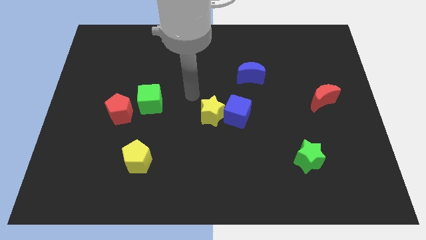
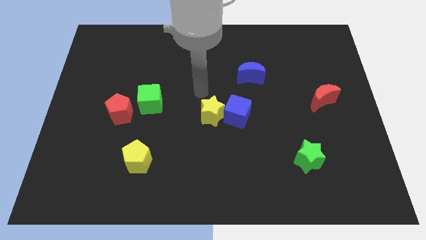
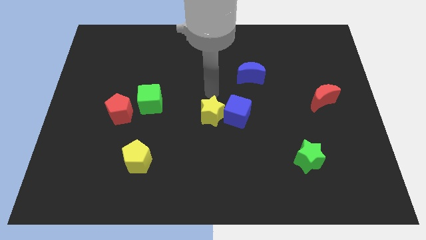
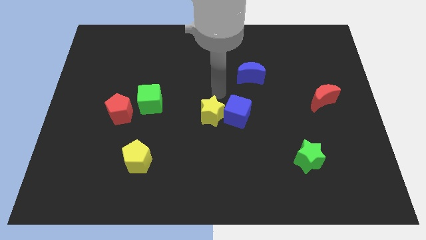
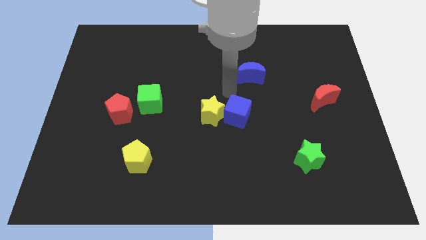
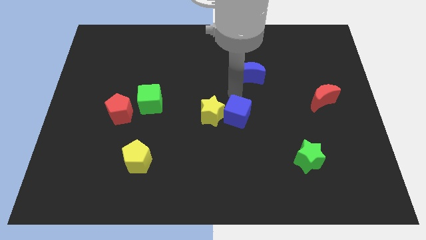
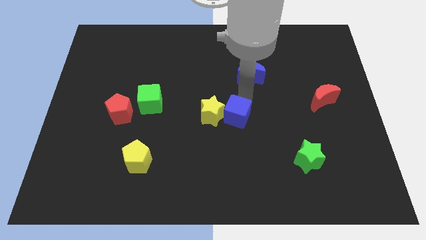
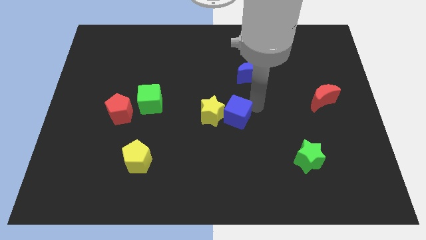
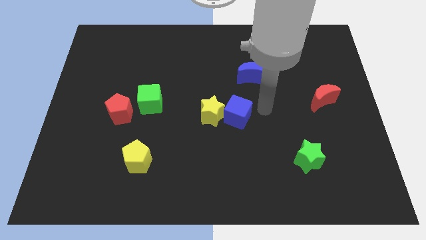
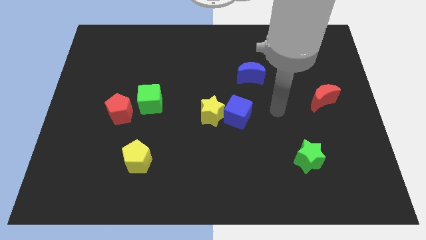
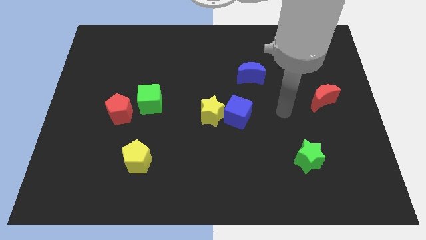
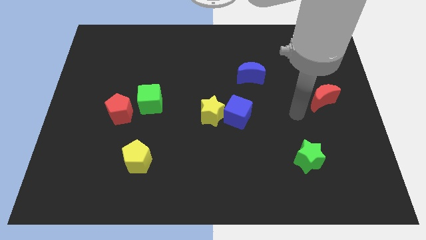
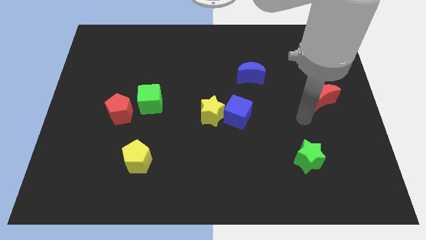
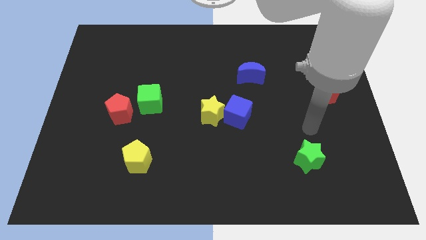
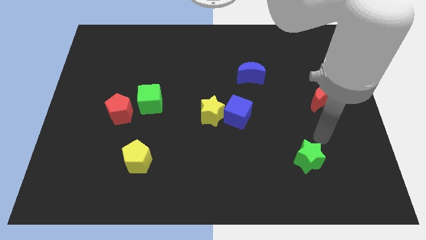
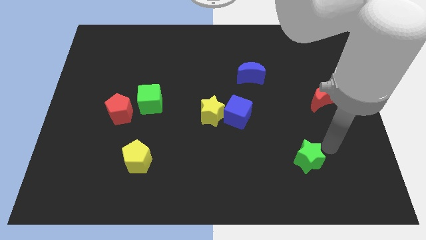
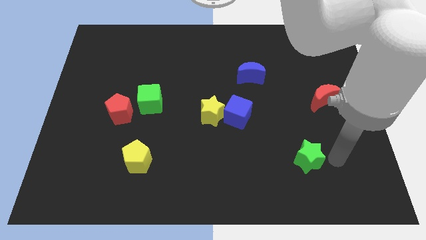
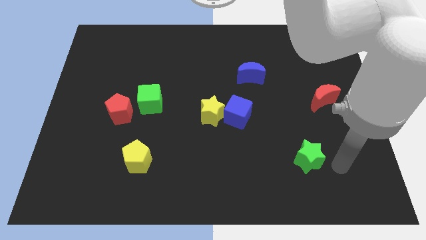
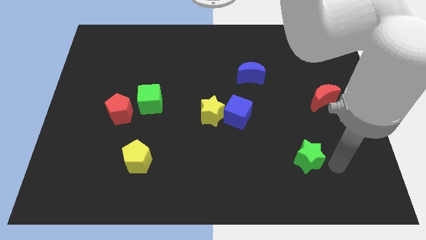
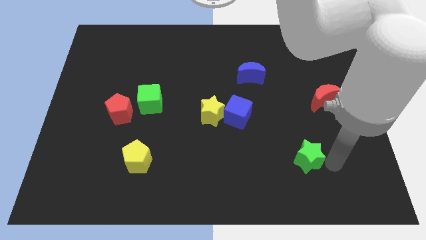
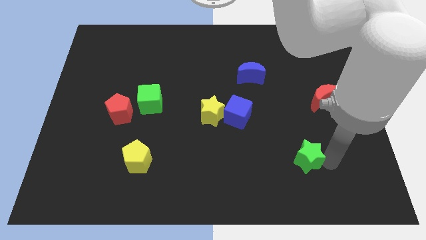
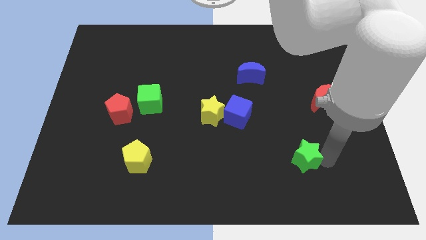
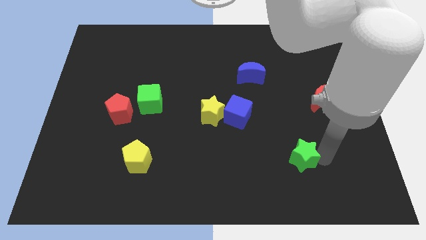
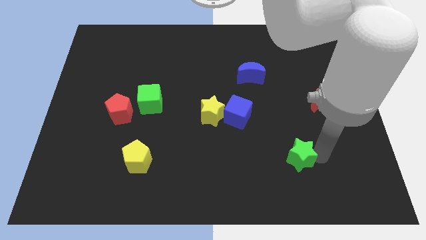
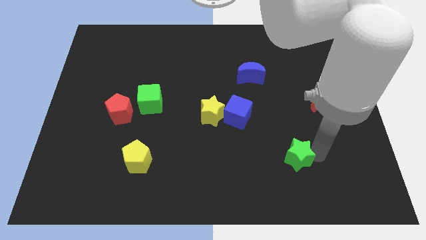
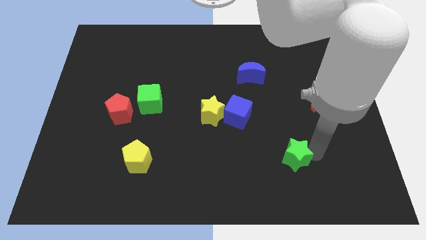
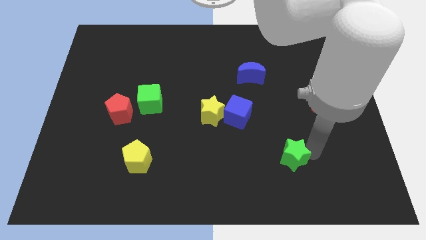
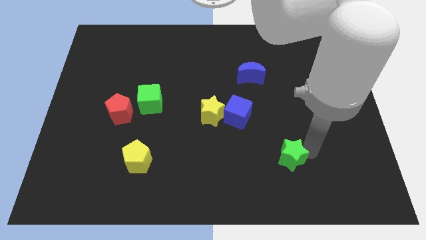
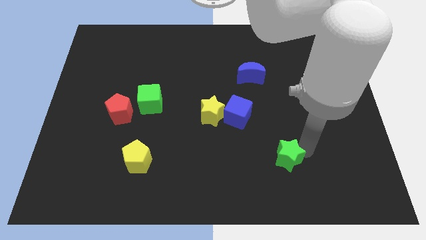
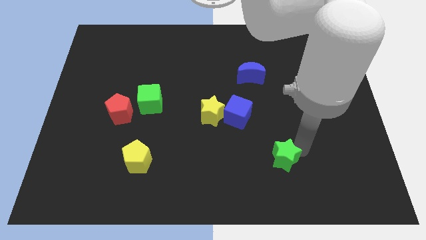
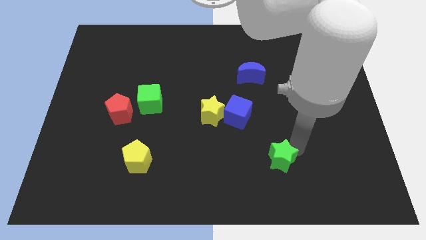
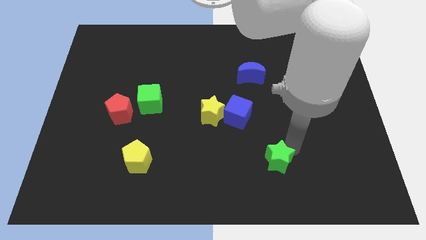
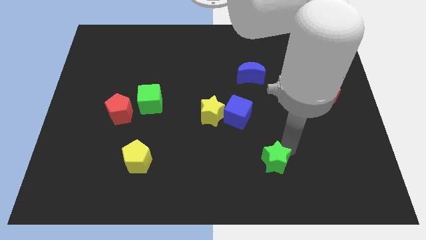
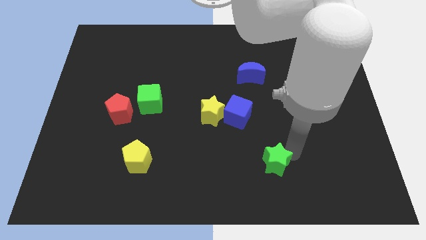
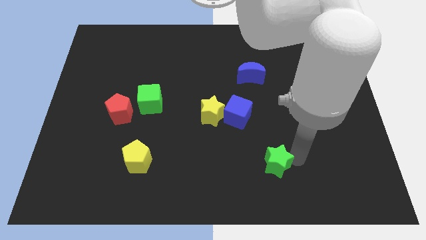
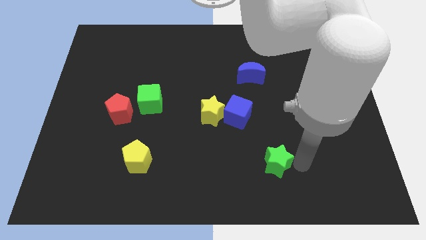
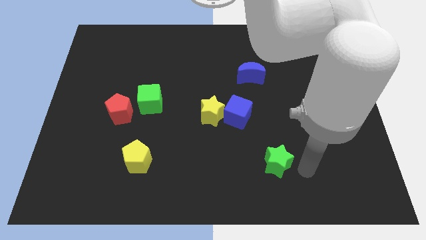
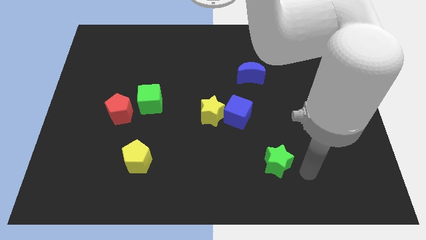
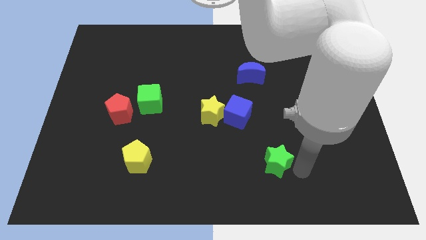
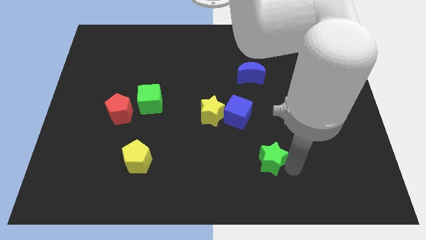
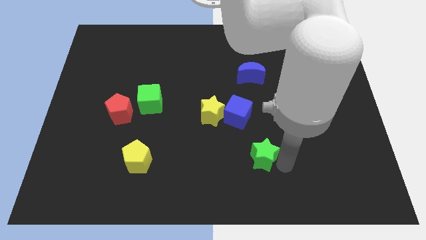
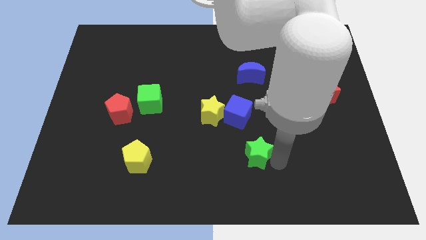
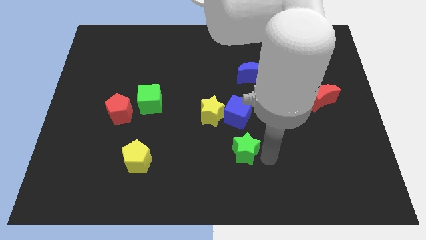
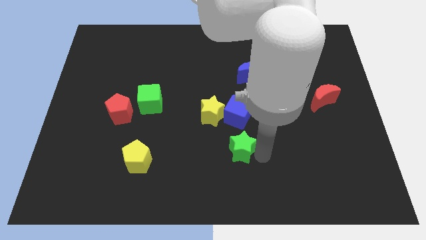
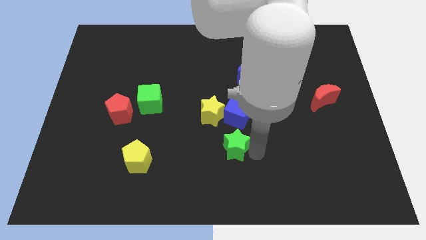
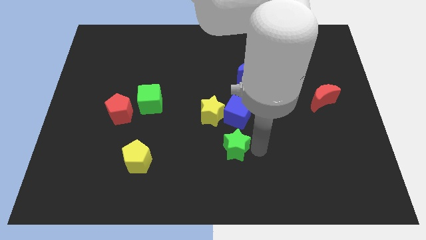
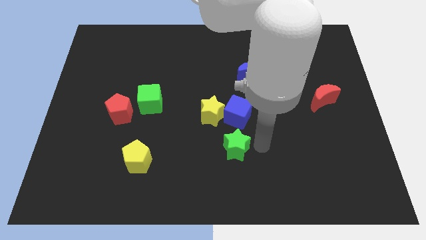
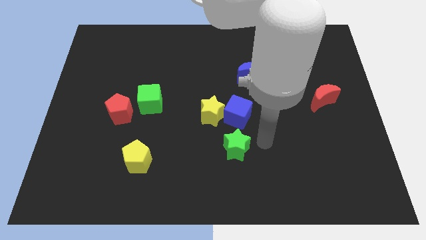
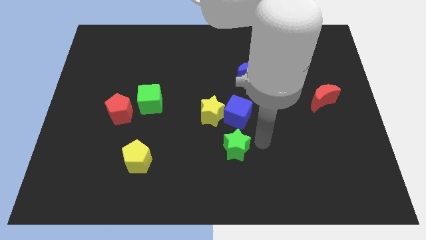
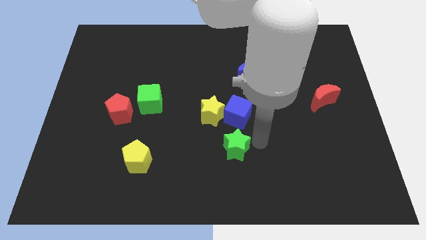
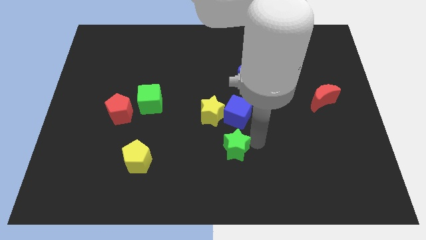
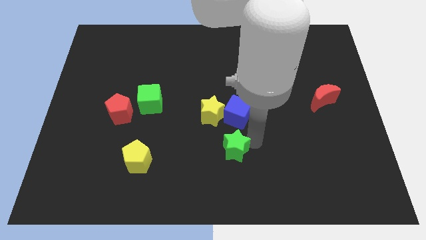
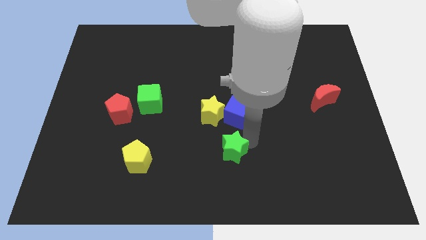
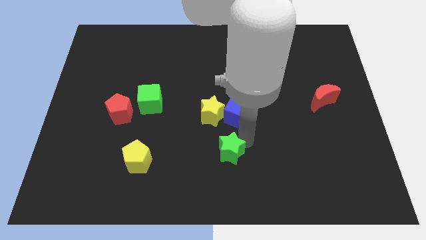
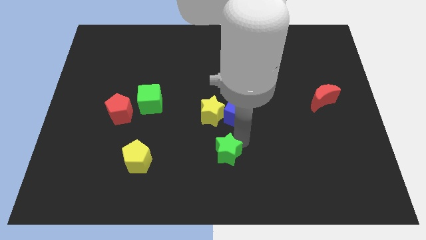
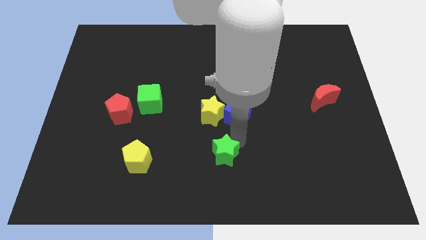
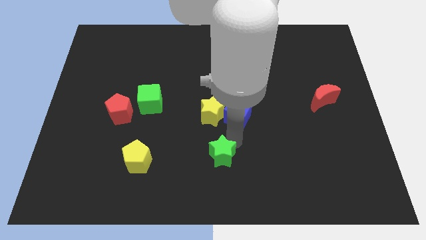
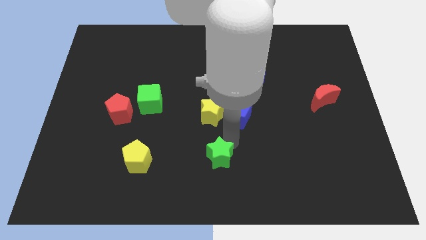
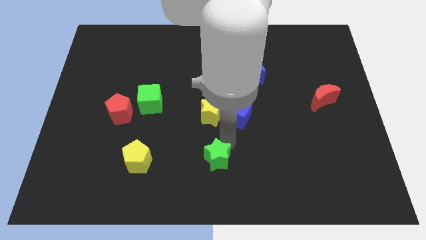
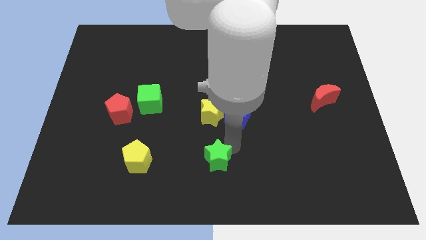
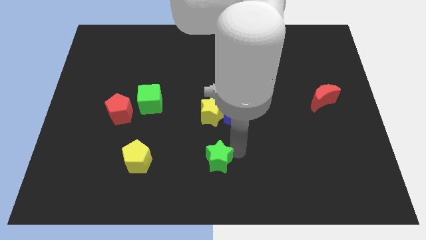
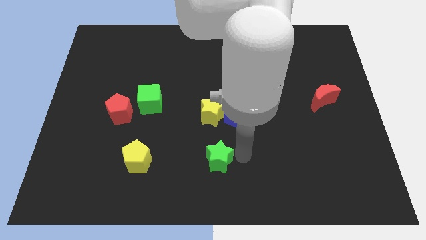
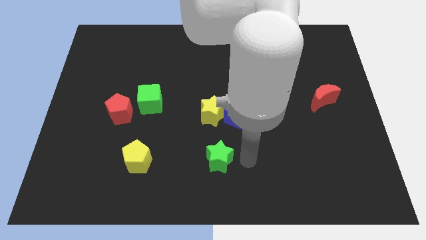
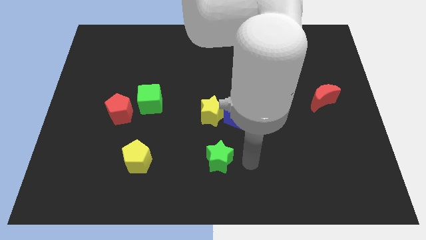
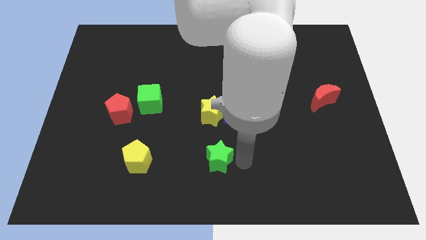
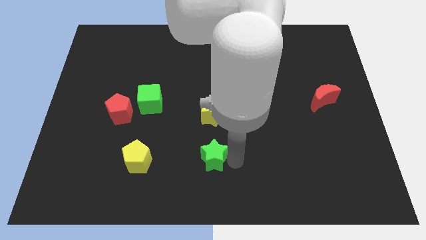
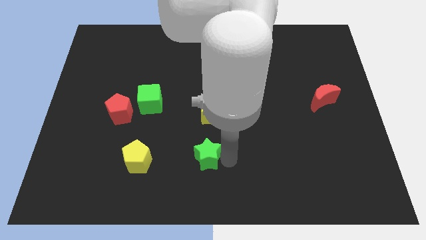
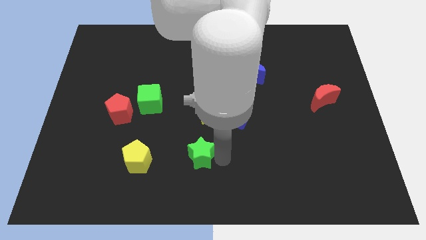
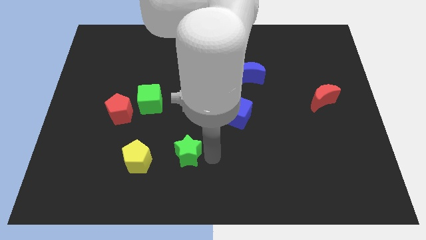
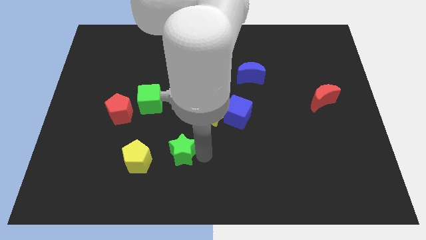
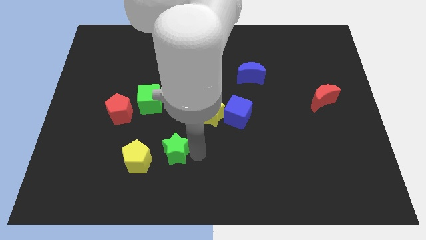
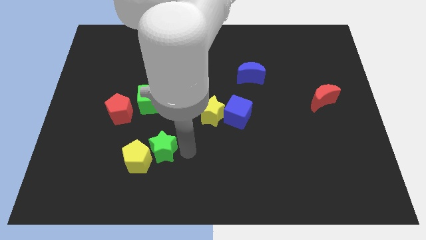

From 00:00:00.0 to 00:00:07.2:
slide the green star towards the yellow pentagon
